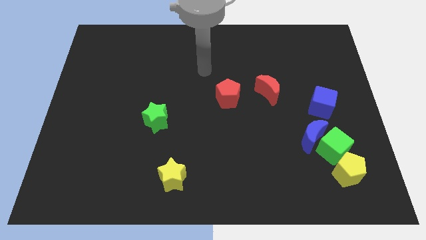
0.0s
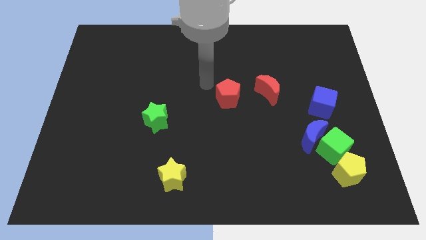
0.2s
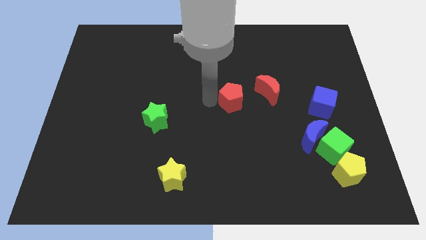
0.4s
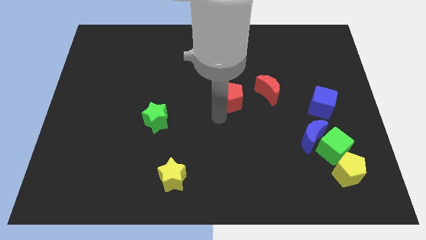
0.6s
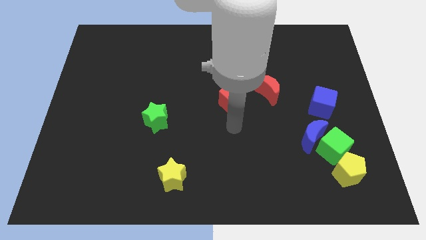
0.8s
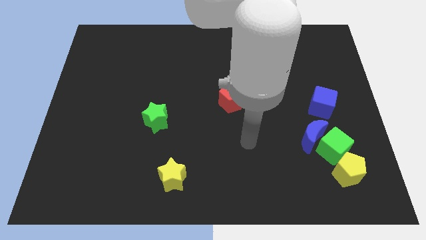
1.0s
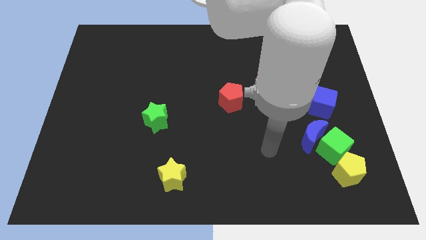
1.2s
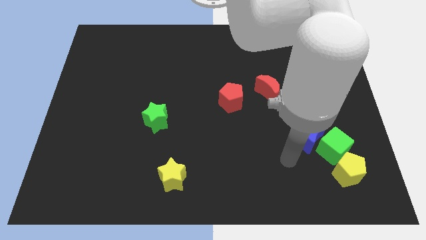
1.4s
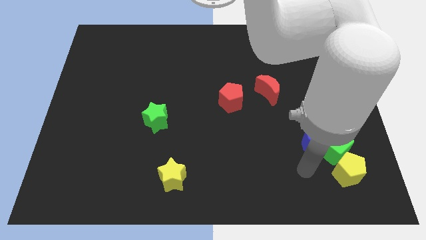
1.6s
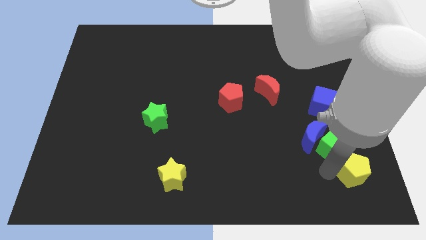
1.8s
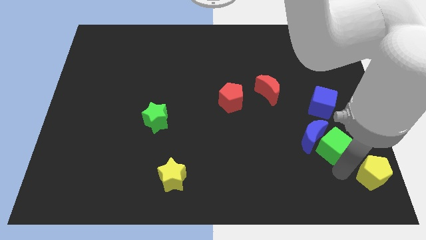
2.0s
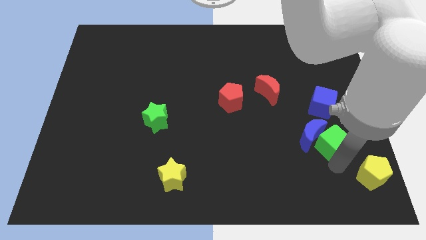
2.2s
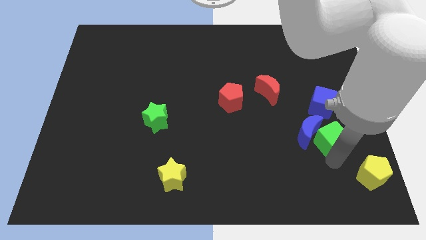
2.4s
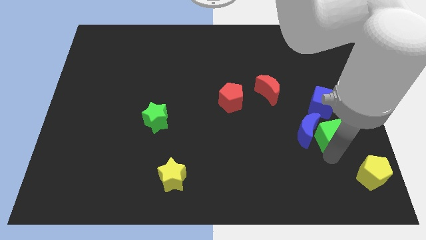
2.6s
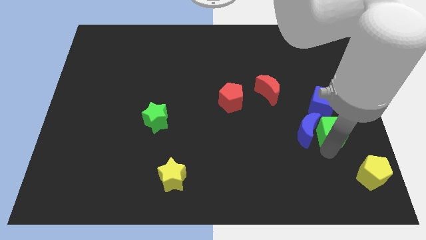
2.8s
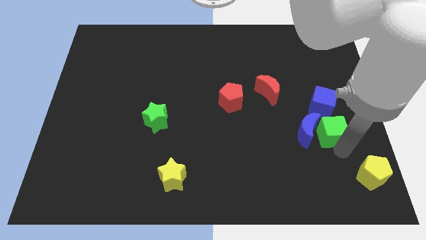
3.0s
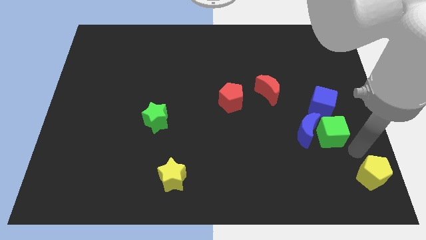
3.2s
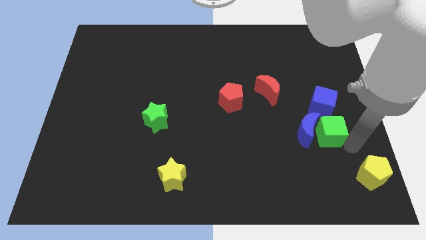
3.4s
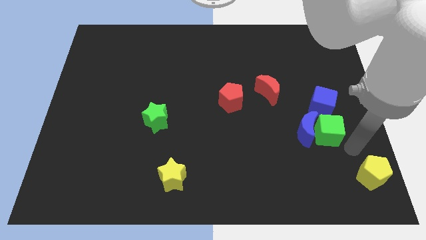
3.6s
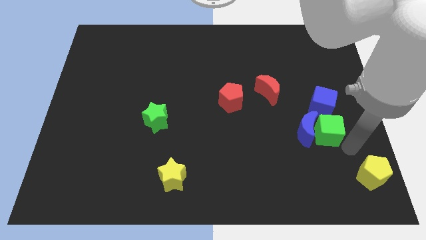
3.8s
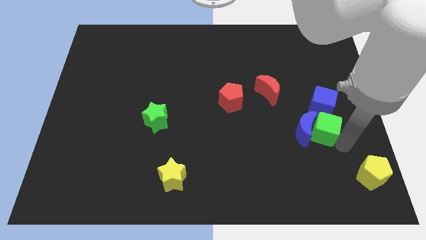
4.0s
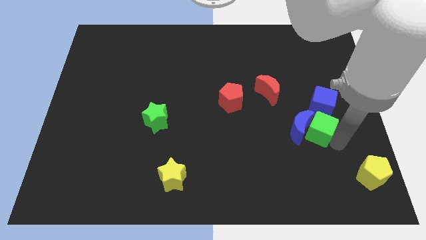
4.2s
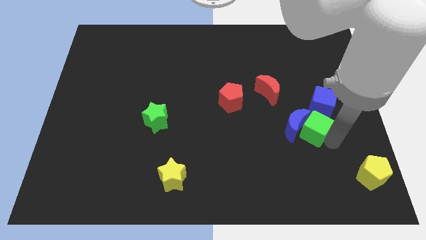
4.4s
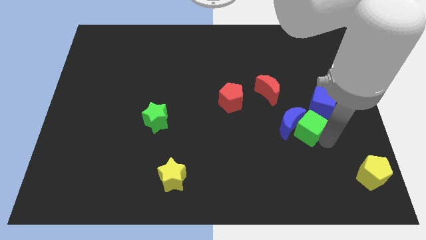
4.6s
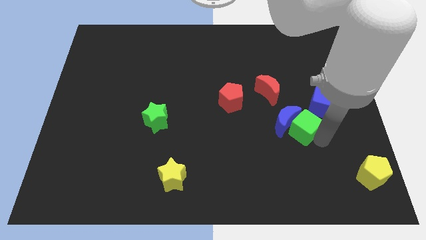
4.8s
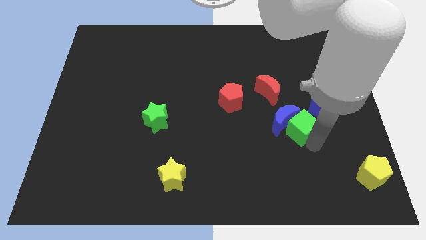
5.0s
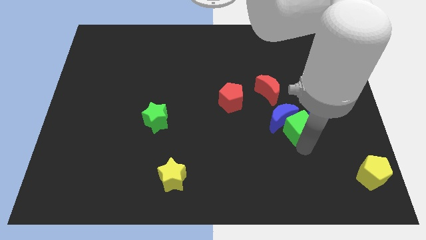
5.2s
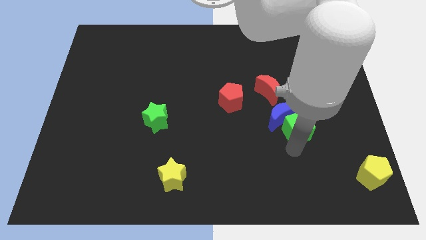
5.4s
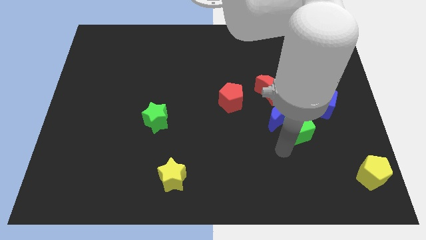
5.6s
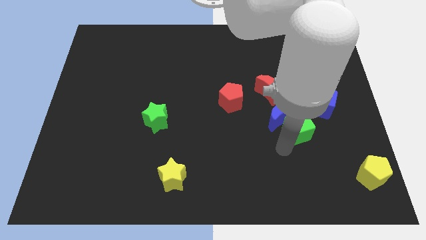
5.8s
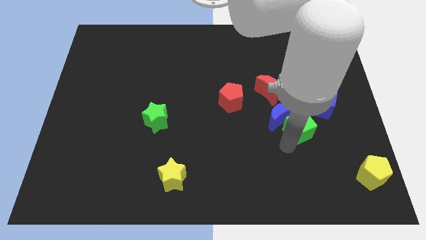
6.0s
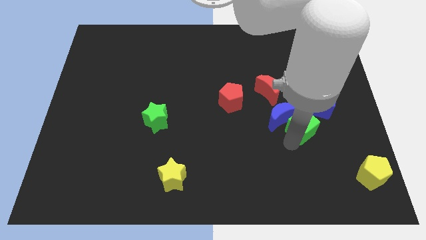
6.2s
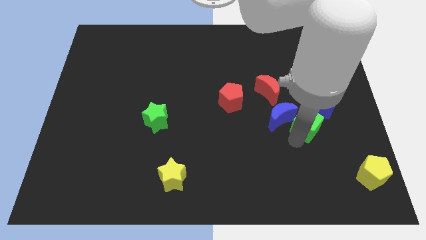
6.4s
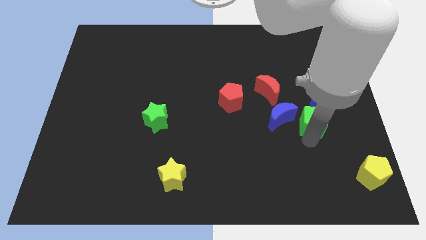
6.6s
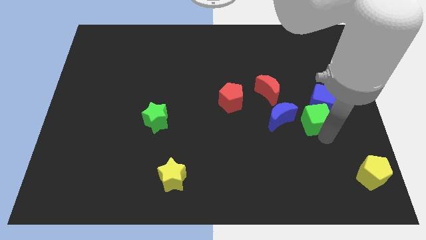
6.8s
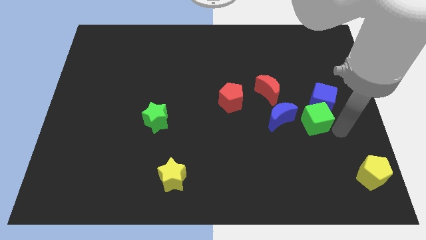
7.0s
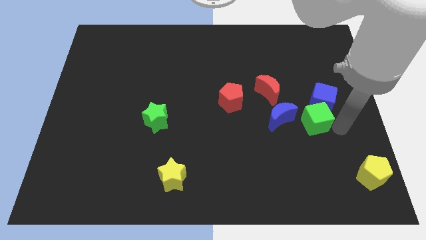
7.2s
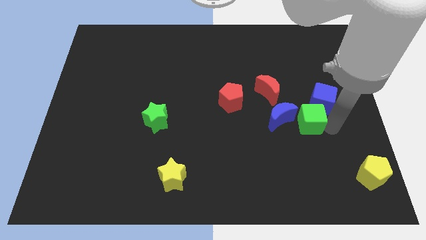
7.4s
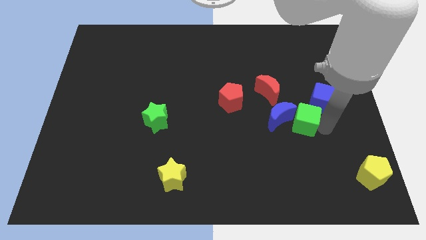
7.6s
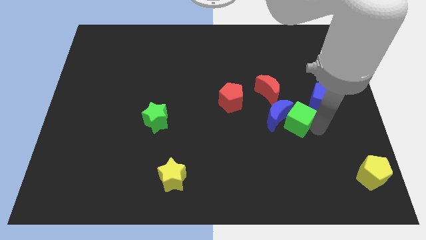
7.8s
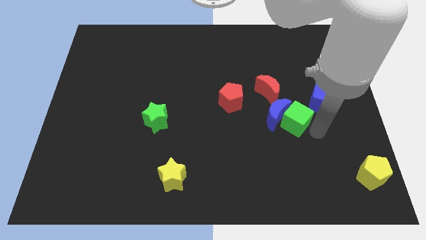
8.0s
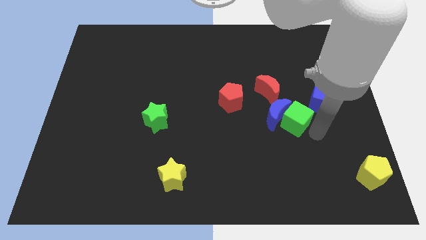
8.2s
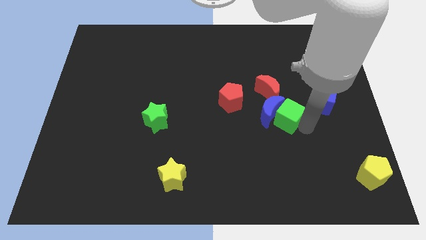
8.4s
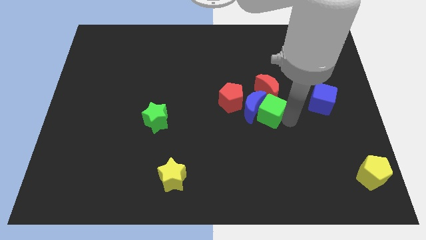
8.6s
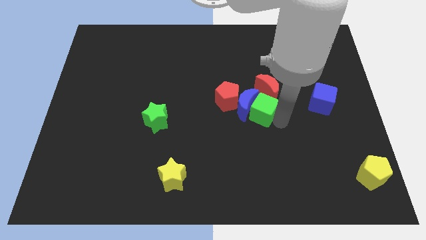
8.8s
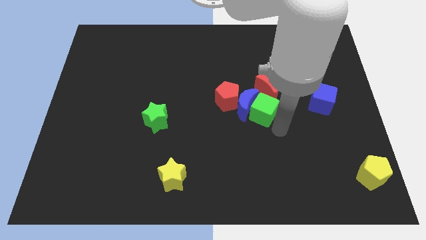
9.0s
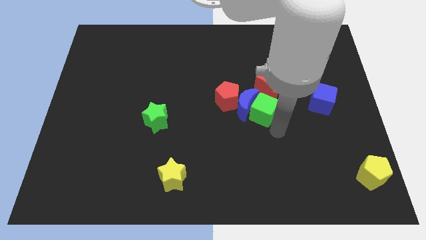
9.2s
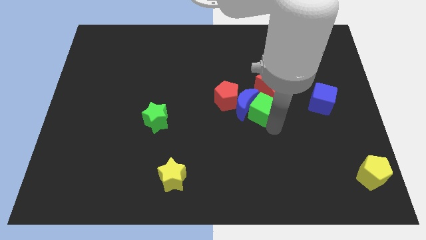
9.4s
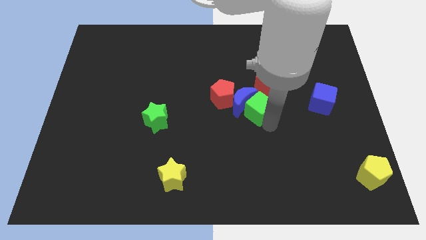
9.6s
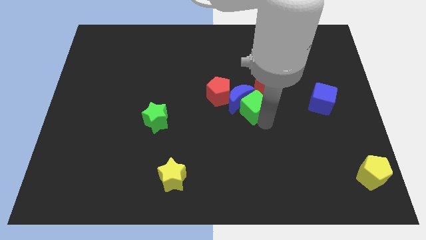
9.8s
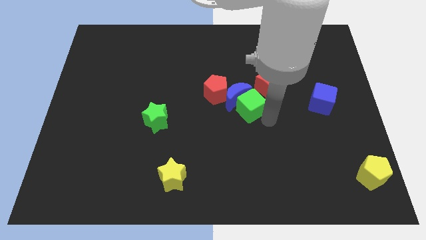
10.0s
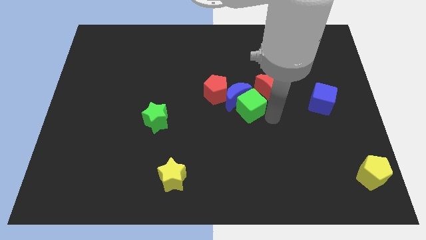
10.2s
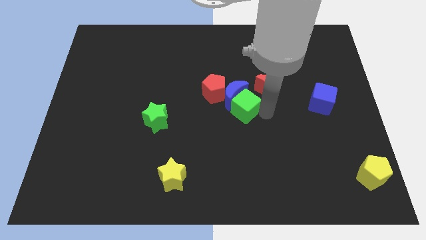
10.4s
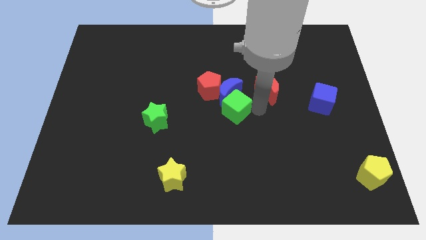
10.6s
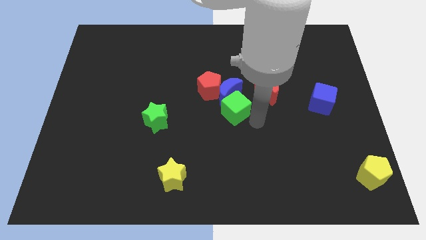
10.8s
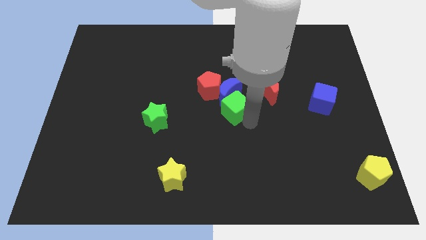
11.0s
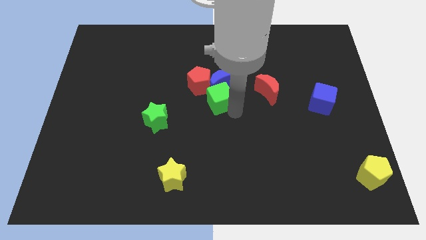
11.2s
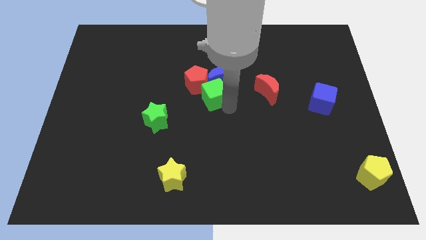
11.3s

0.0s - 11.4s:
push the green cube towards the red pentagon

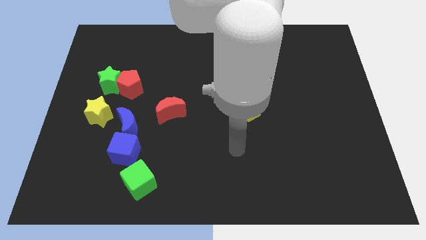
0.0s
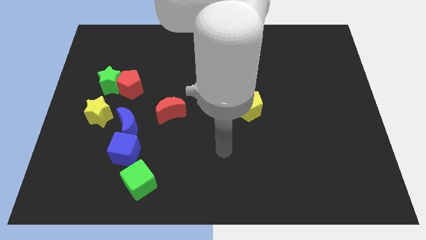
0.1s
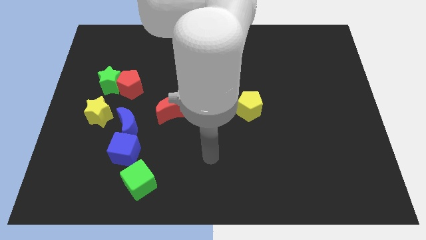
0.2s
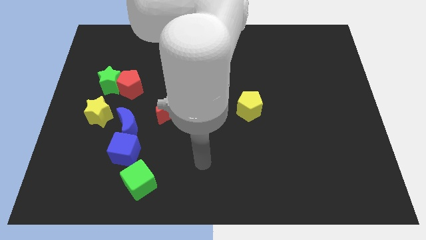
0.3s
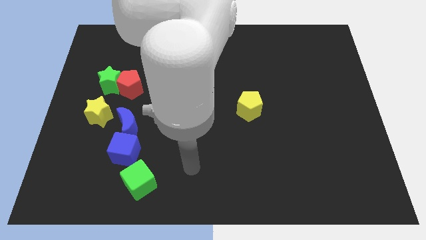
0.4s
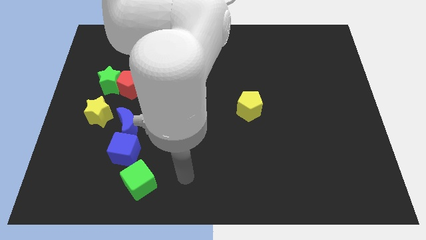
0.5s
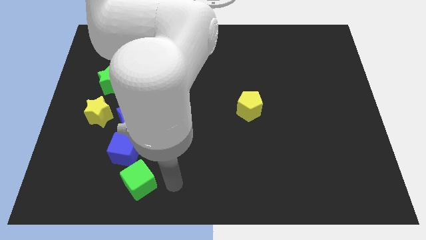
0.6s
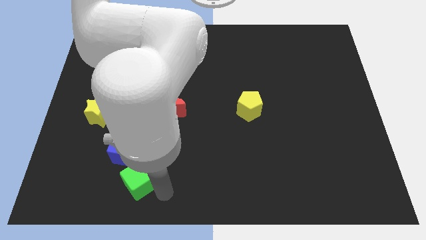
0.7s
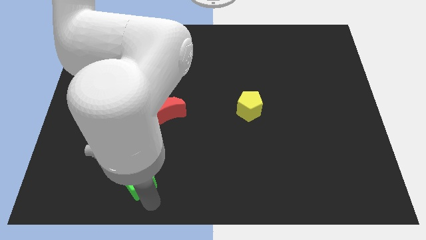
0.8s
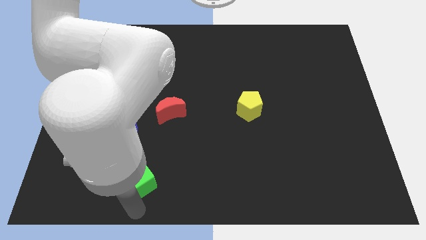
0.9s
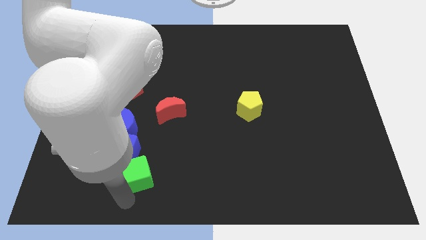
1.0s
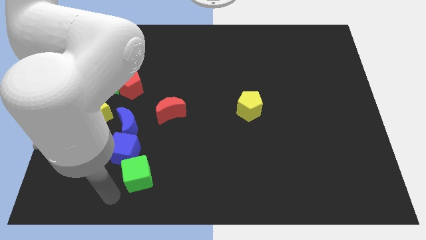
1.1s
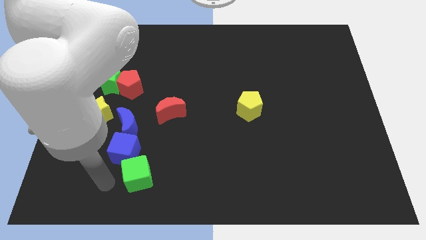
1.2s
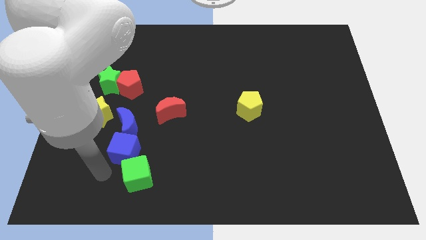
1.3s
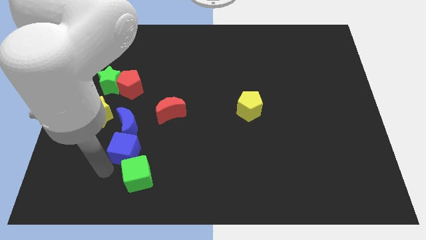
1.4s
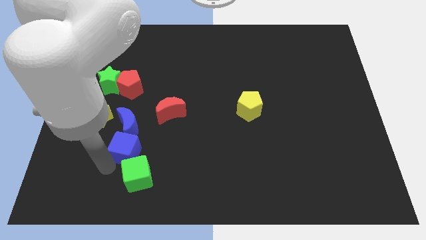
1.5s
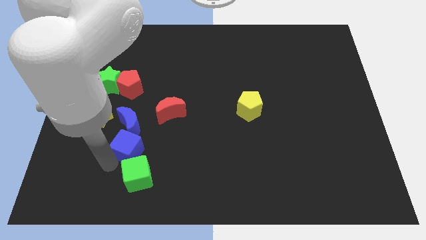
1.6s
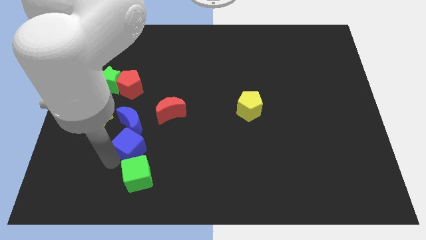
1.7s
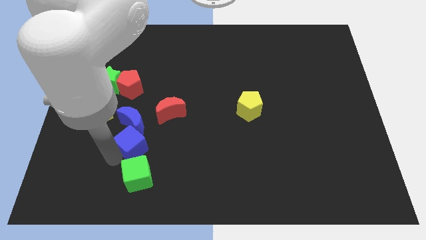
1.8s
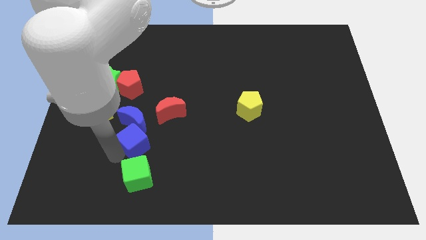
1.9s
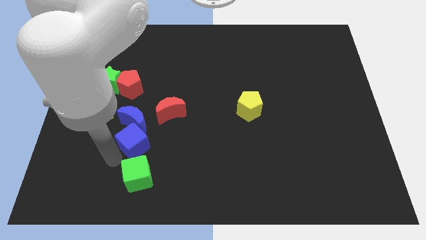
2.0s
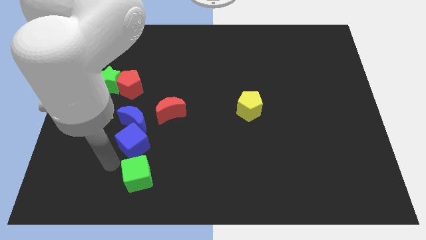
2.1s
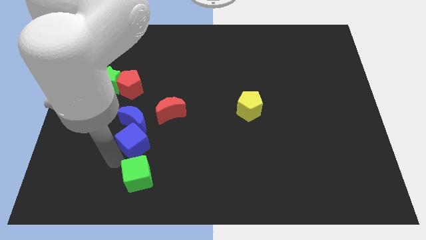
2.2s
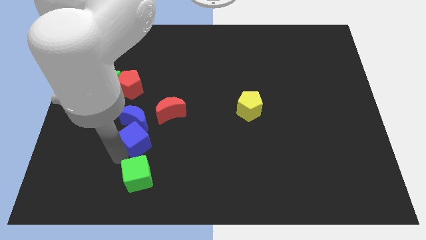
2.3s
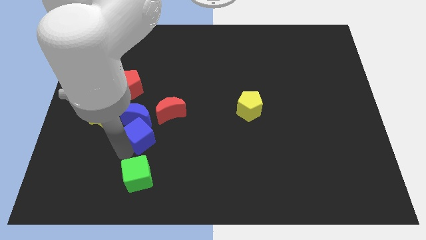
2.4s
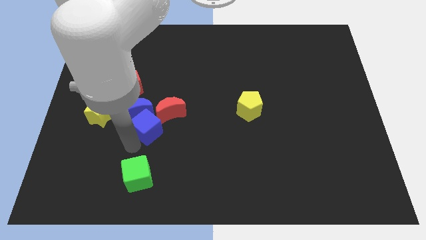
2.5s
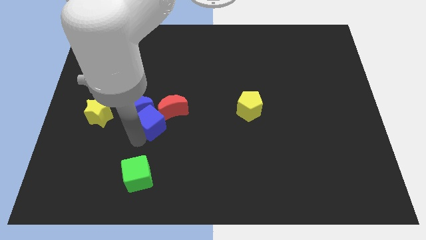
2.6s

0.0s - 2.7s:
push the blue cube to the red moon
